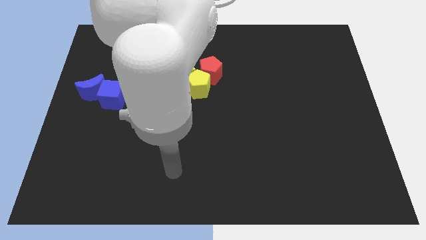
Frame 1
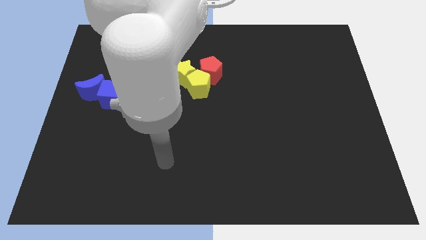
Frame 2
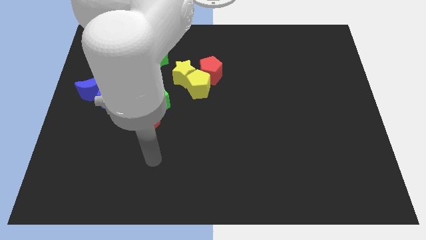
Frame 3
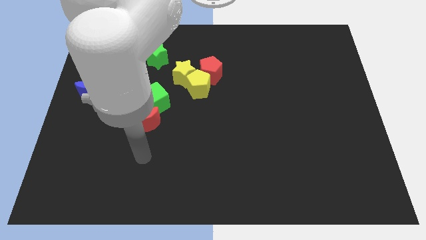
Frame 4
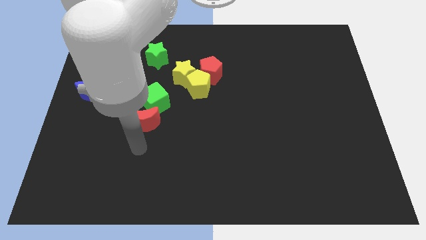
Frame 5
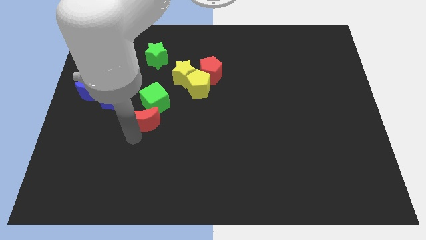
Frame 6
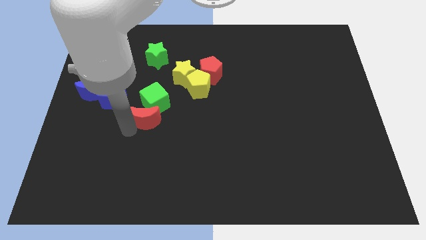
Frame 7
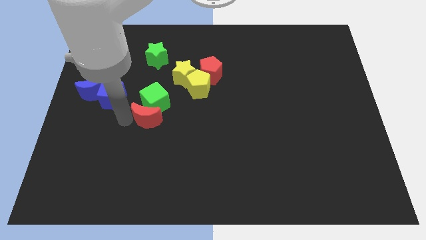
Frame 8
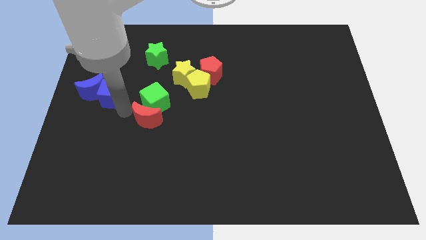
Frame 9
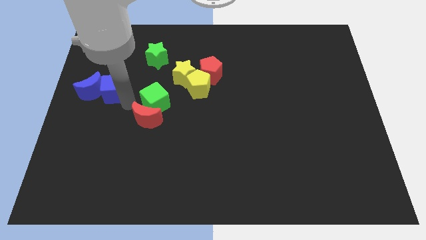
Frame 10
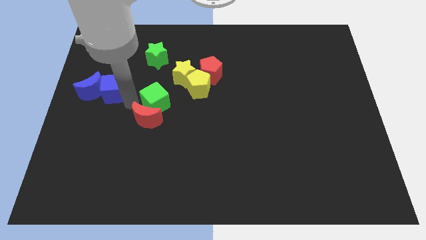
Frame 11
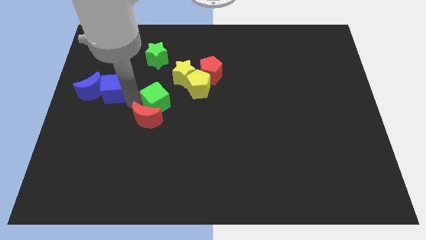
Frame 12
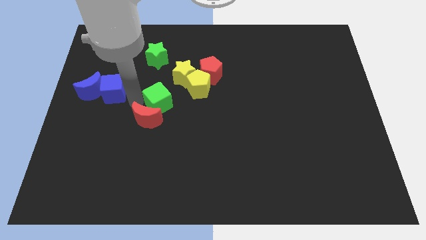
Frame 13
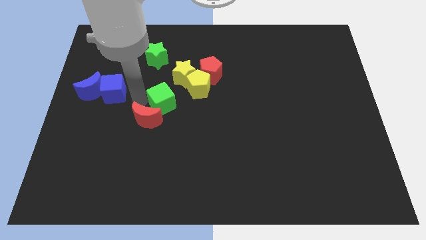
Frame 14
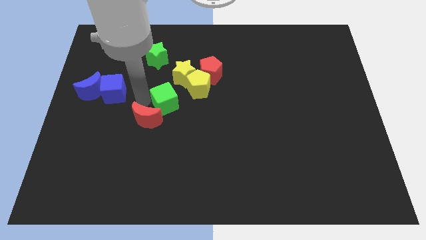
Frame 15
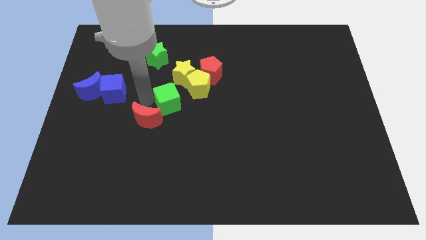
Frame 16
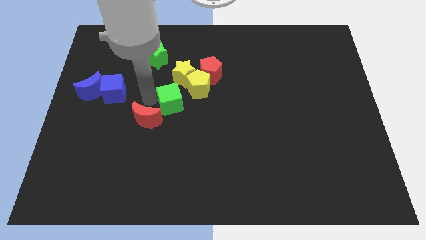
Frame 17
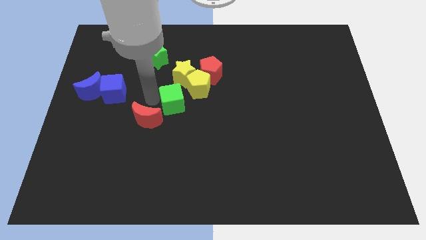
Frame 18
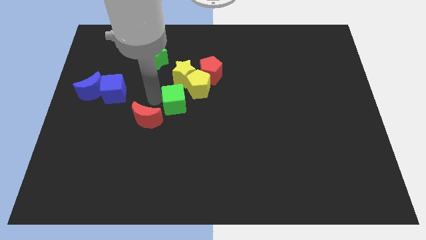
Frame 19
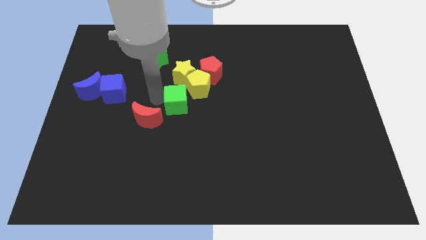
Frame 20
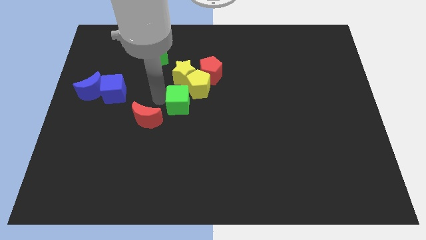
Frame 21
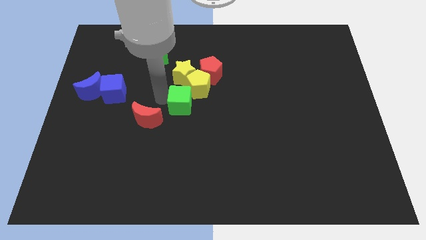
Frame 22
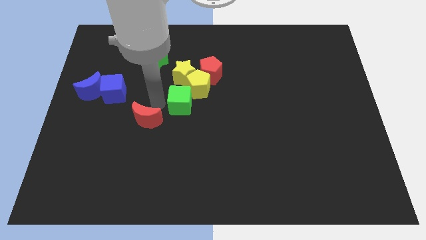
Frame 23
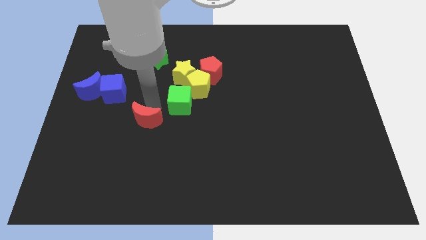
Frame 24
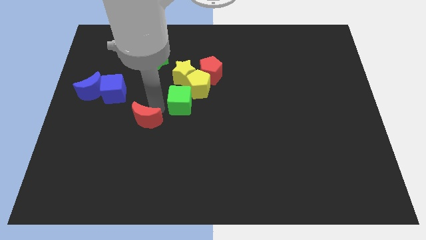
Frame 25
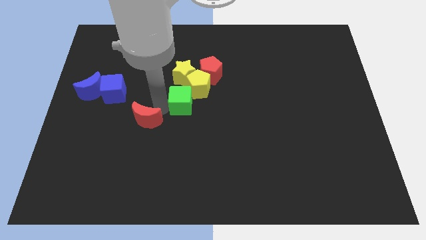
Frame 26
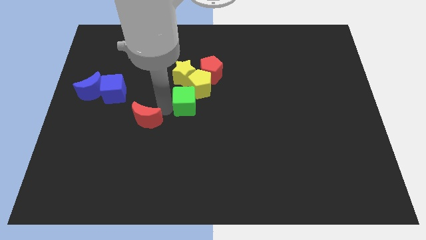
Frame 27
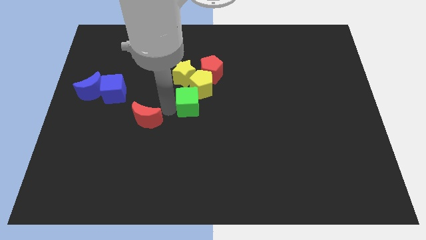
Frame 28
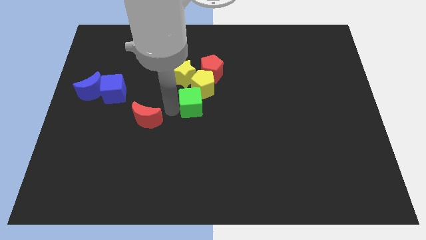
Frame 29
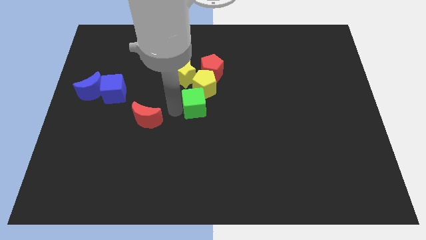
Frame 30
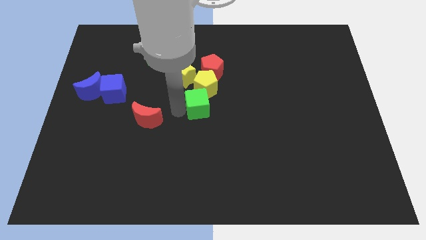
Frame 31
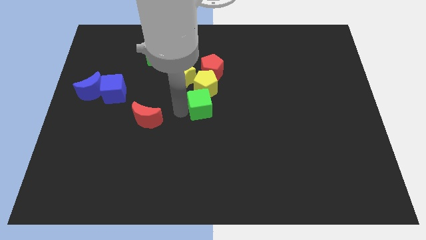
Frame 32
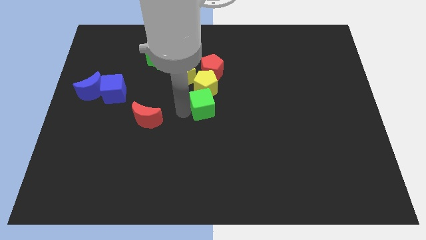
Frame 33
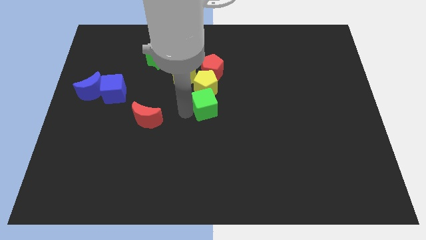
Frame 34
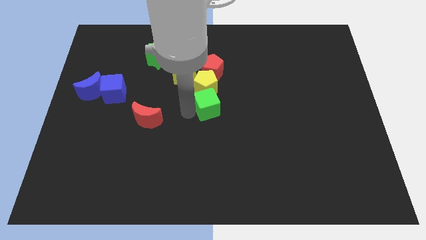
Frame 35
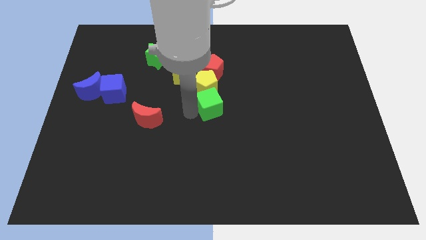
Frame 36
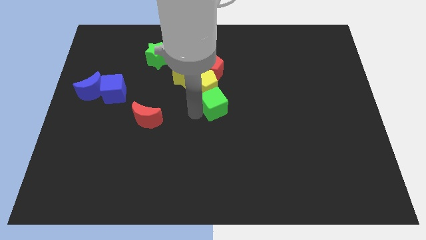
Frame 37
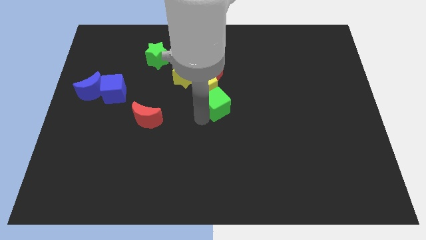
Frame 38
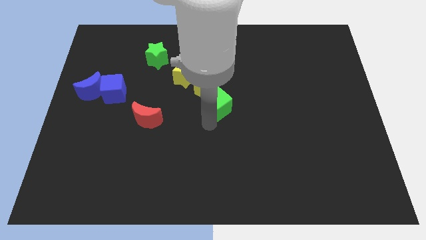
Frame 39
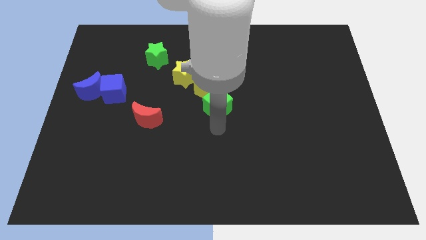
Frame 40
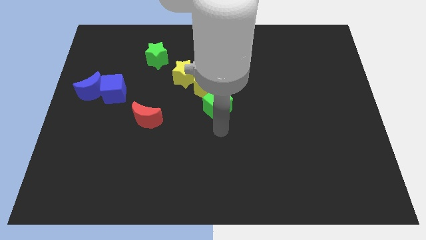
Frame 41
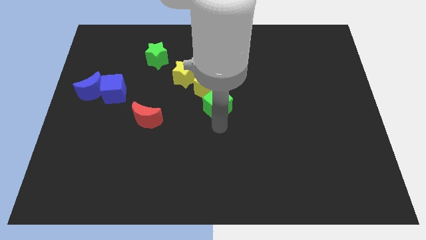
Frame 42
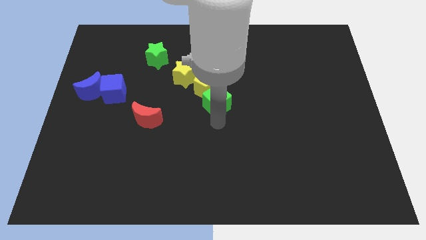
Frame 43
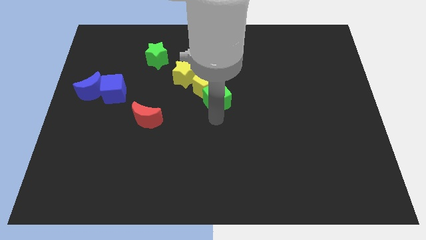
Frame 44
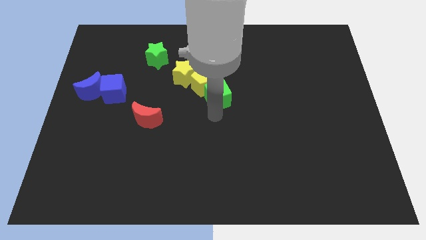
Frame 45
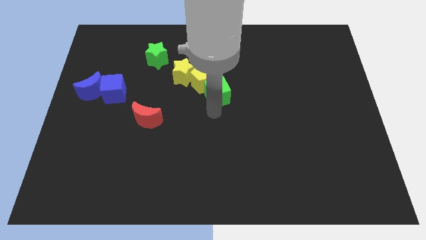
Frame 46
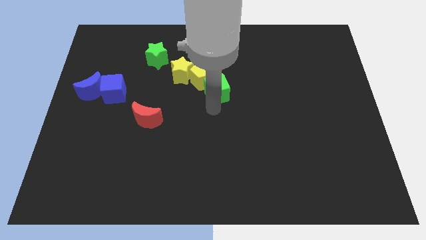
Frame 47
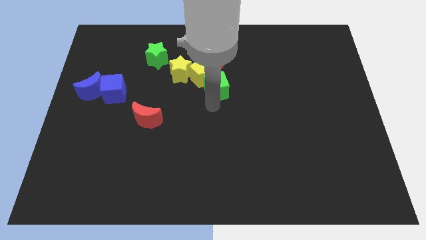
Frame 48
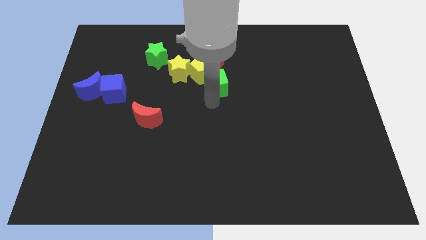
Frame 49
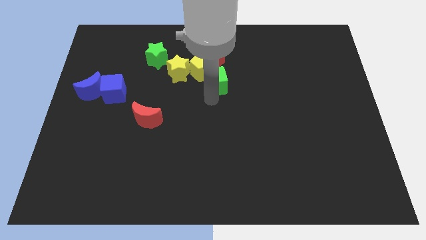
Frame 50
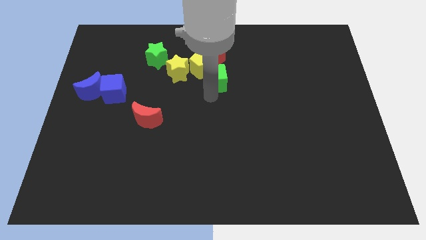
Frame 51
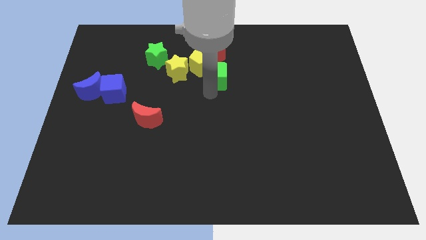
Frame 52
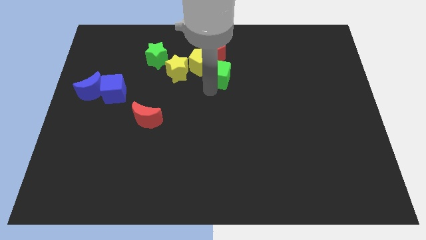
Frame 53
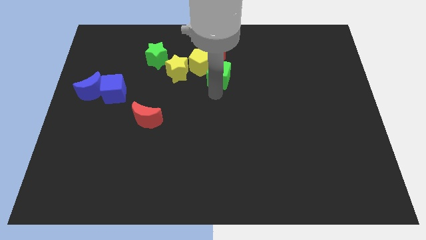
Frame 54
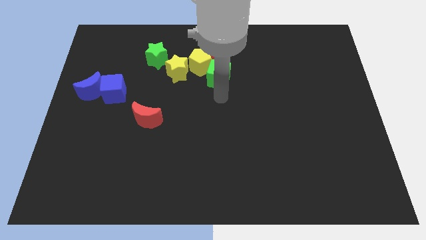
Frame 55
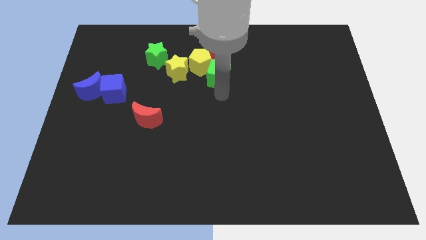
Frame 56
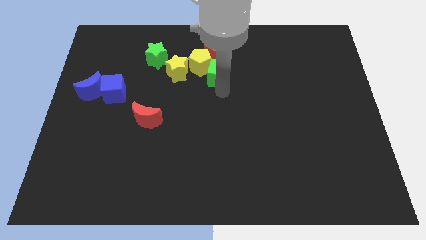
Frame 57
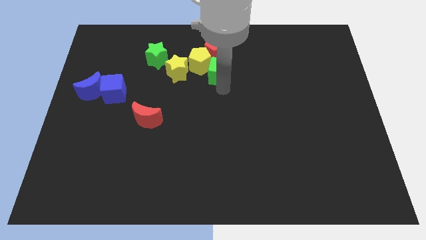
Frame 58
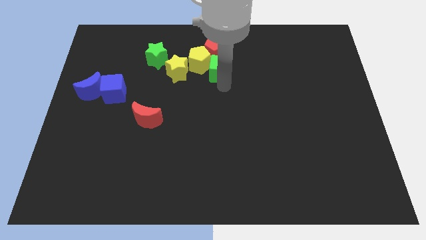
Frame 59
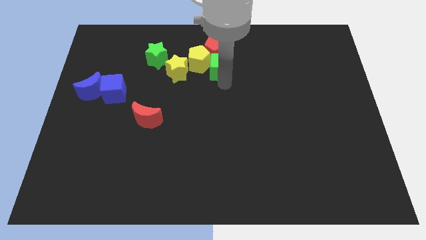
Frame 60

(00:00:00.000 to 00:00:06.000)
push the green cube to the red pentagon
